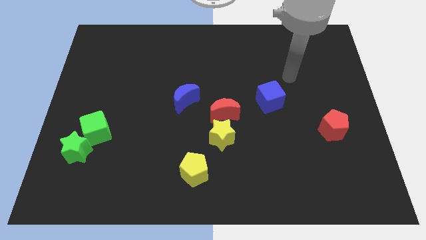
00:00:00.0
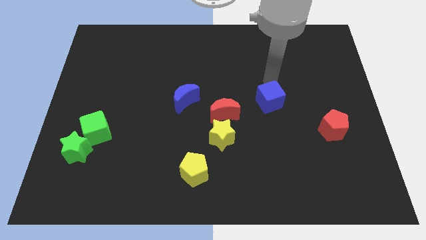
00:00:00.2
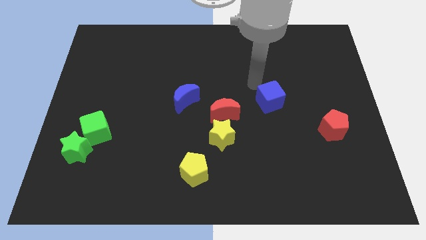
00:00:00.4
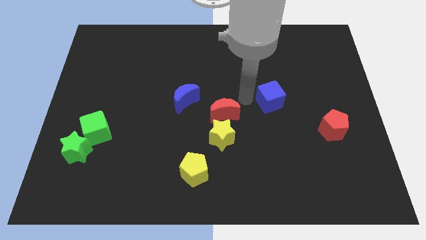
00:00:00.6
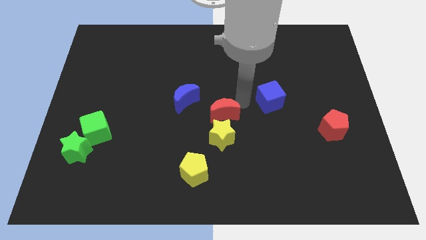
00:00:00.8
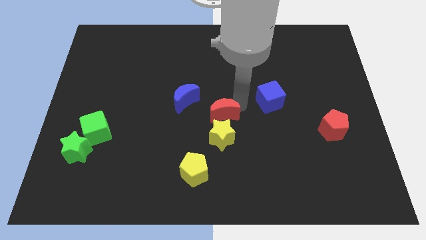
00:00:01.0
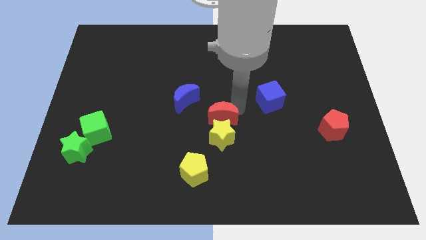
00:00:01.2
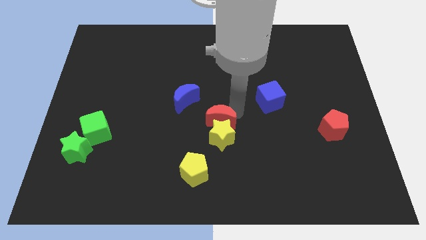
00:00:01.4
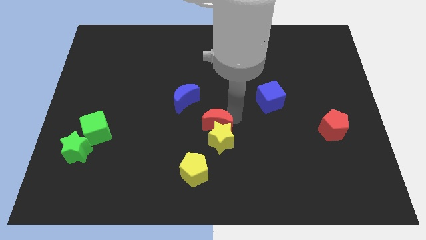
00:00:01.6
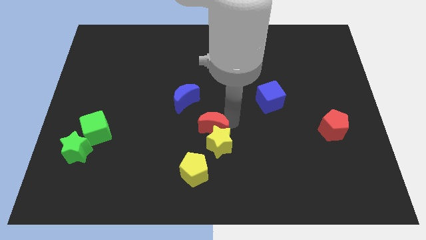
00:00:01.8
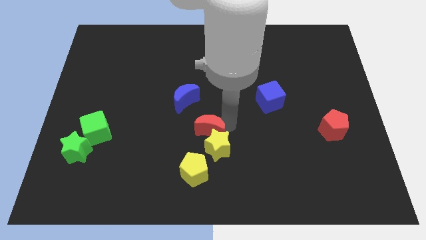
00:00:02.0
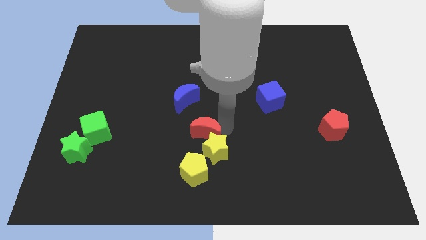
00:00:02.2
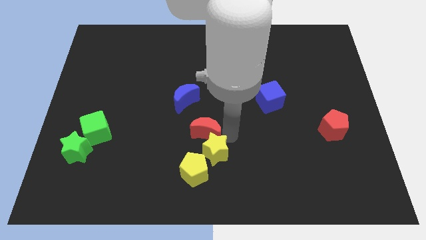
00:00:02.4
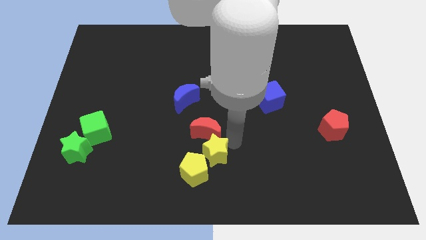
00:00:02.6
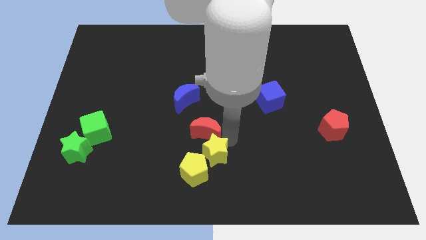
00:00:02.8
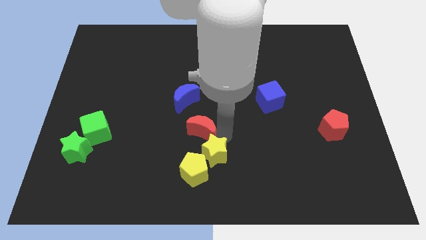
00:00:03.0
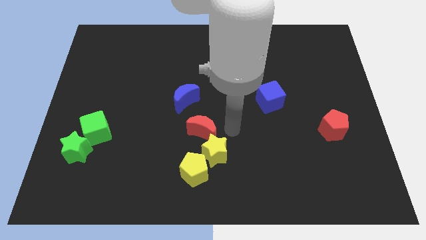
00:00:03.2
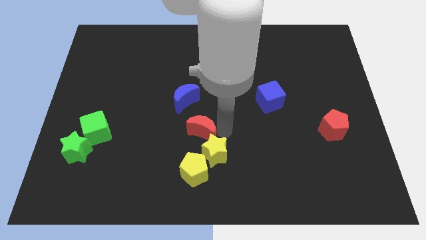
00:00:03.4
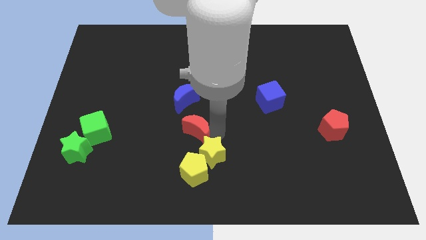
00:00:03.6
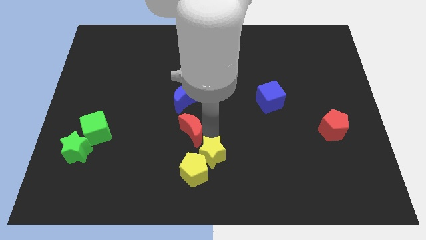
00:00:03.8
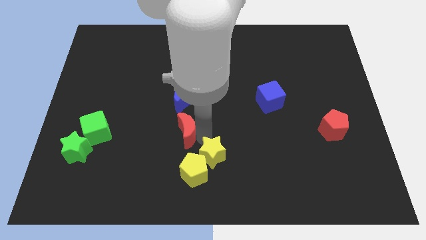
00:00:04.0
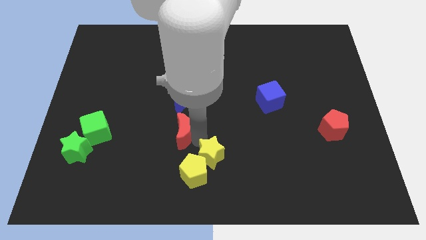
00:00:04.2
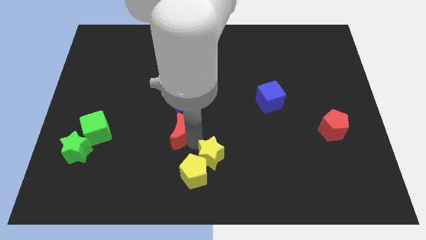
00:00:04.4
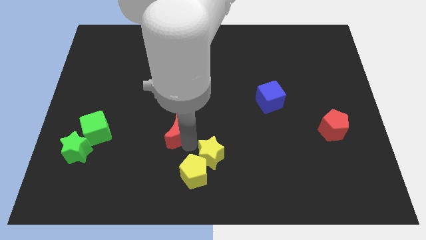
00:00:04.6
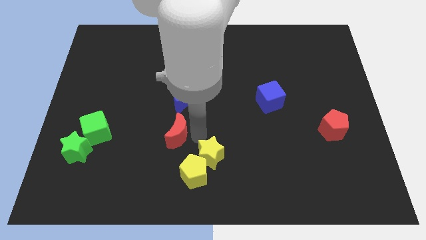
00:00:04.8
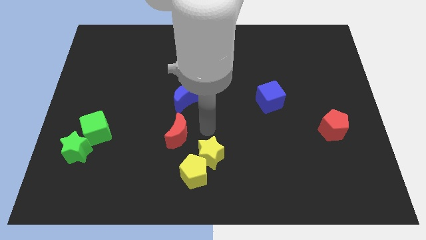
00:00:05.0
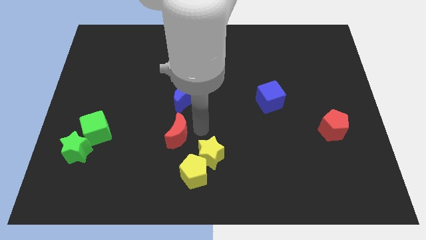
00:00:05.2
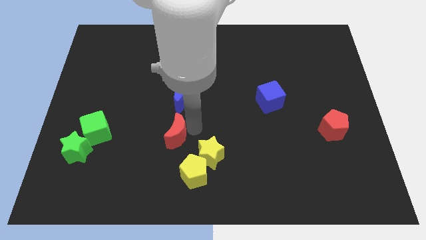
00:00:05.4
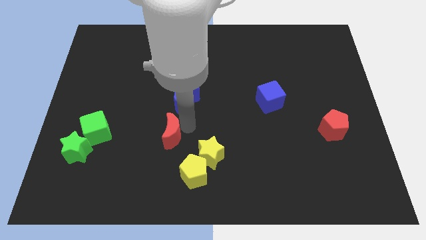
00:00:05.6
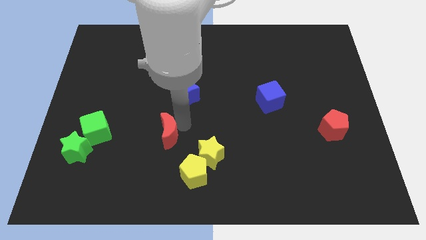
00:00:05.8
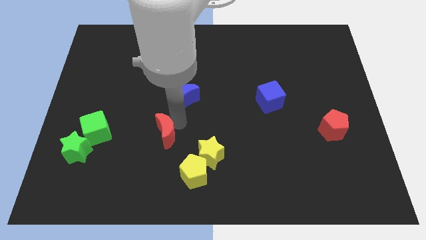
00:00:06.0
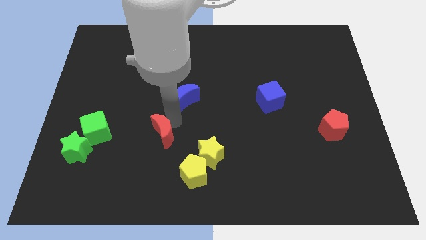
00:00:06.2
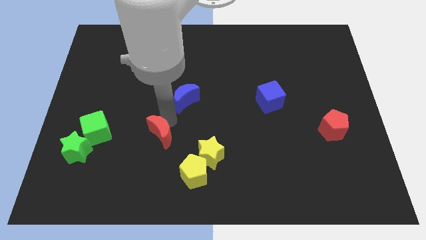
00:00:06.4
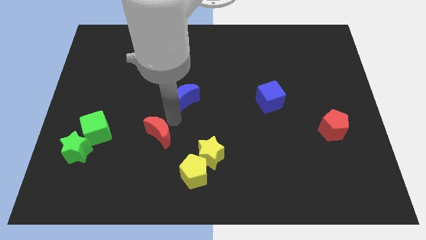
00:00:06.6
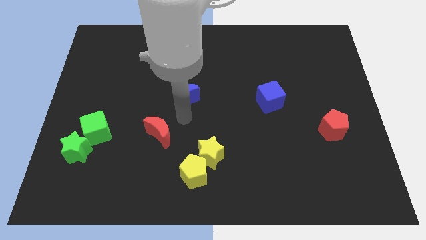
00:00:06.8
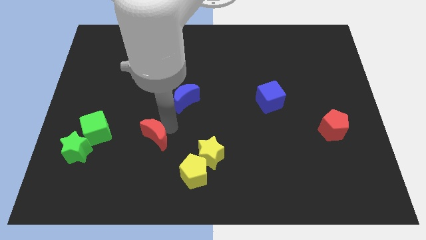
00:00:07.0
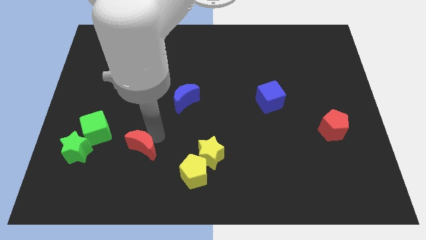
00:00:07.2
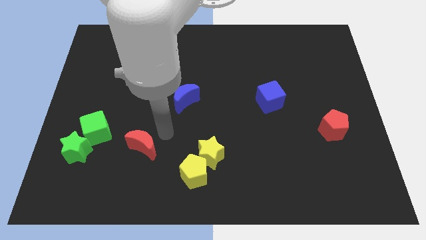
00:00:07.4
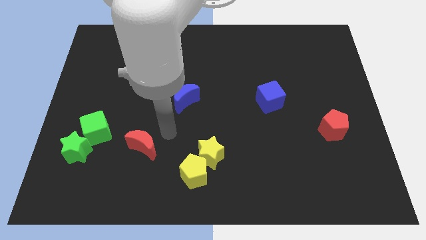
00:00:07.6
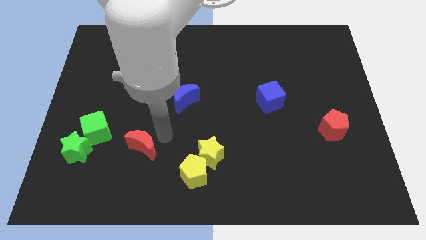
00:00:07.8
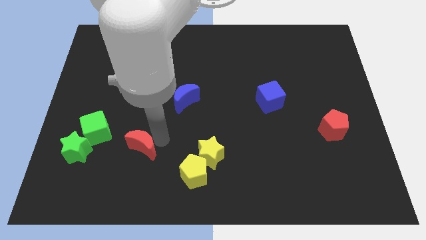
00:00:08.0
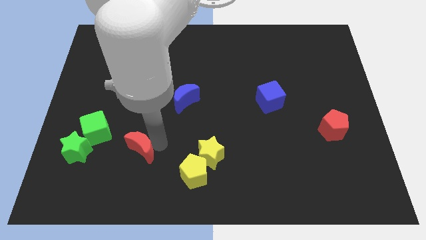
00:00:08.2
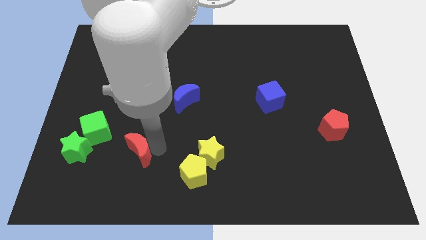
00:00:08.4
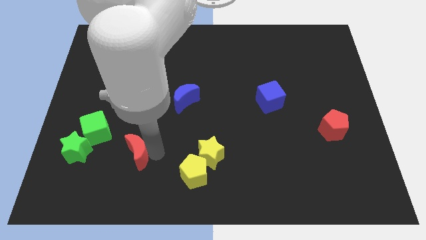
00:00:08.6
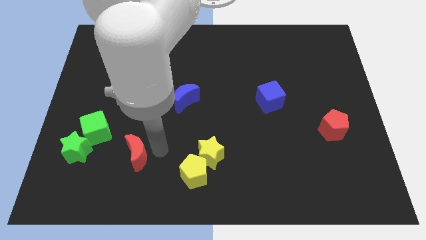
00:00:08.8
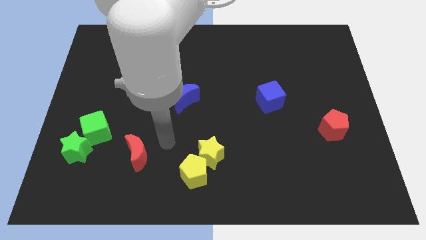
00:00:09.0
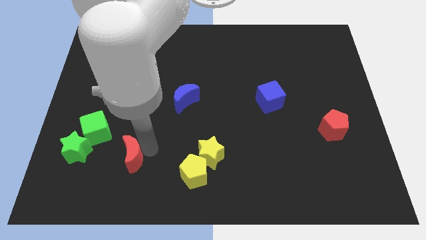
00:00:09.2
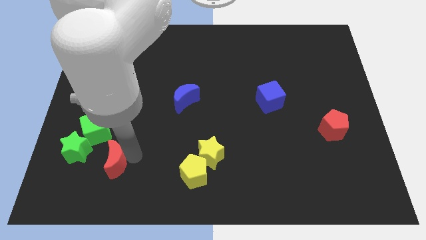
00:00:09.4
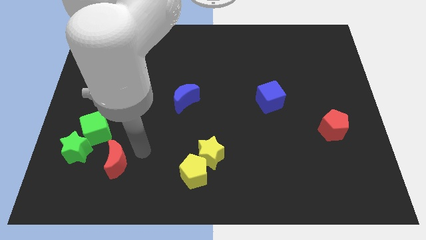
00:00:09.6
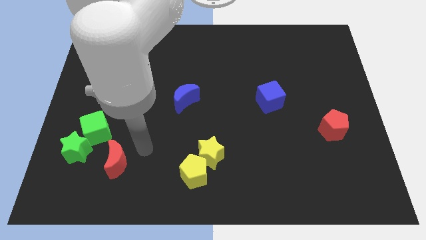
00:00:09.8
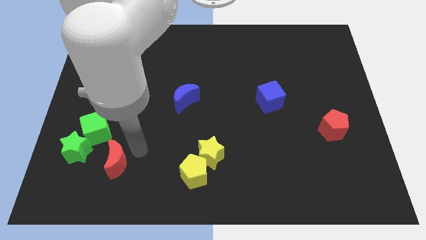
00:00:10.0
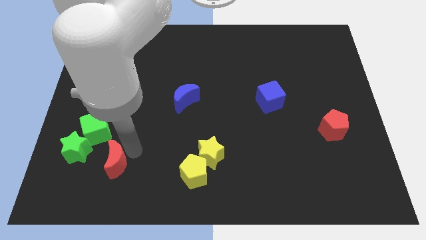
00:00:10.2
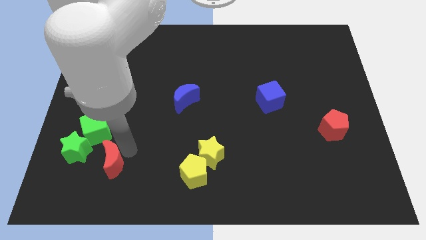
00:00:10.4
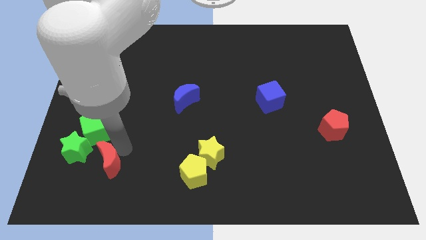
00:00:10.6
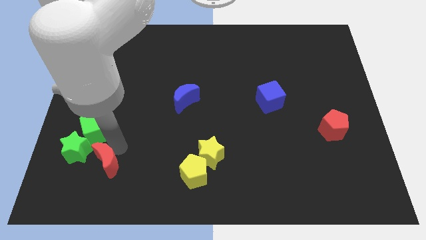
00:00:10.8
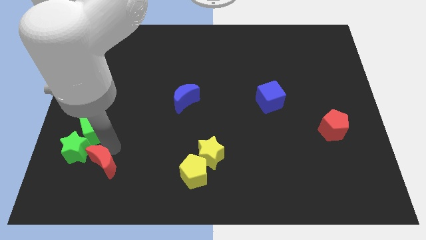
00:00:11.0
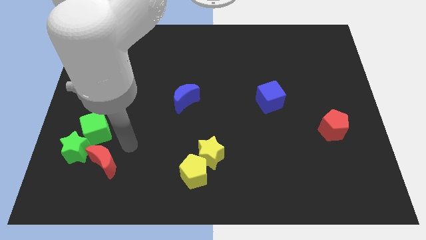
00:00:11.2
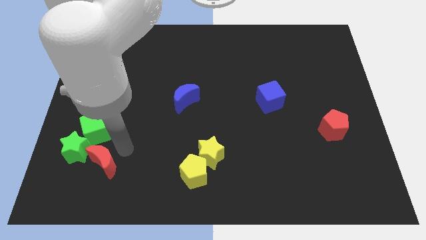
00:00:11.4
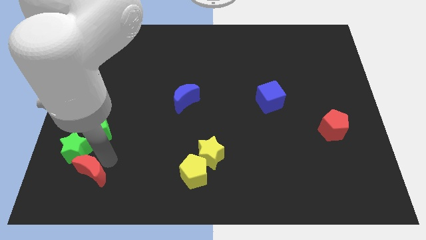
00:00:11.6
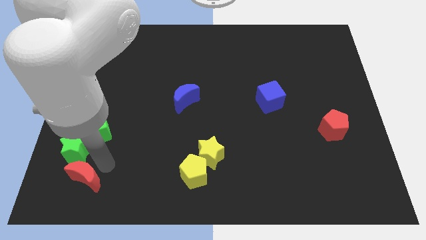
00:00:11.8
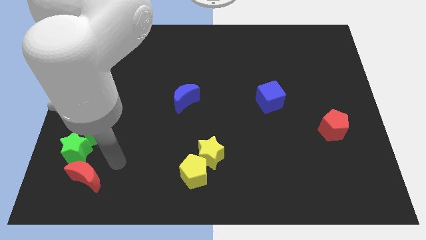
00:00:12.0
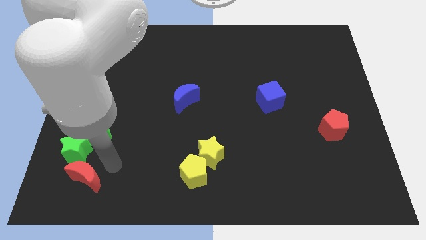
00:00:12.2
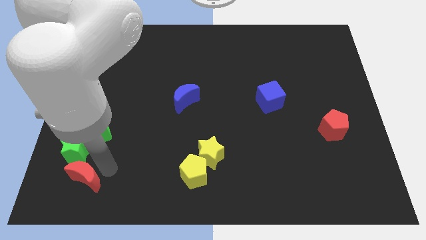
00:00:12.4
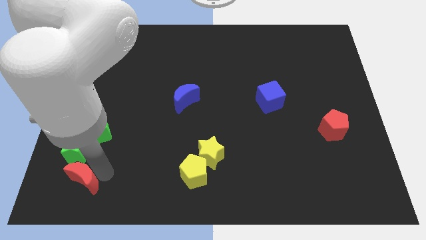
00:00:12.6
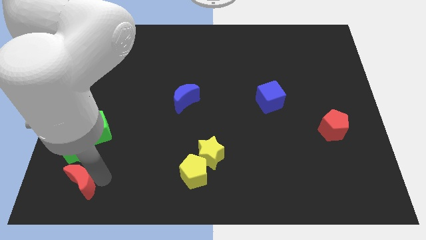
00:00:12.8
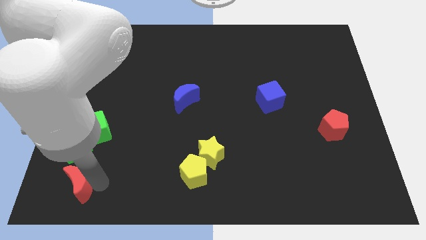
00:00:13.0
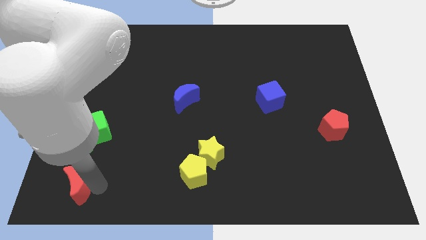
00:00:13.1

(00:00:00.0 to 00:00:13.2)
push the red moon to the bottom left
